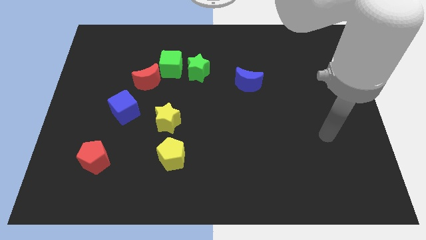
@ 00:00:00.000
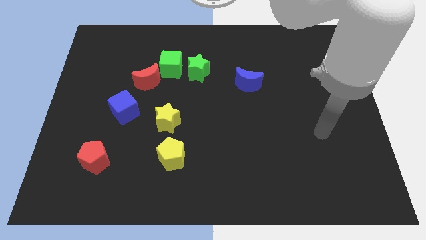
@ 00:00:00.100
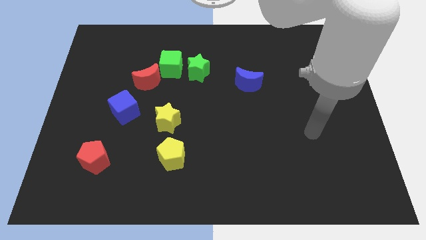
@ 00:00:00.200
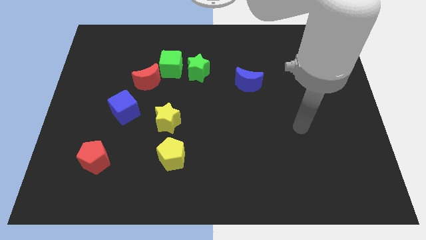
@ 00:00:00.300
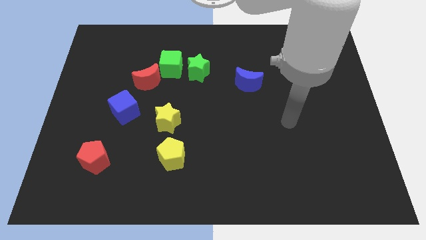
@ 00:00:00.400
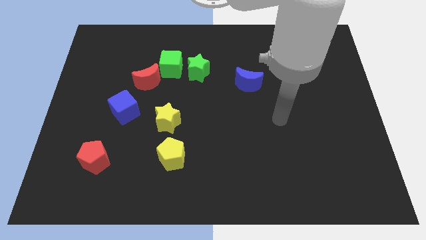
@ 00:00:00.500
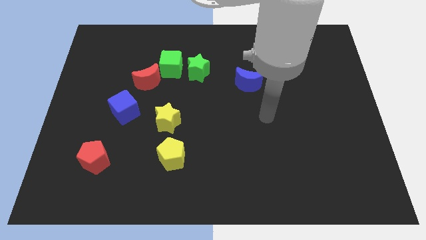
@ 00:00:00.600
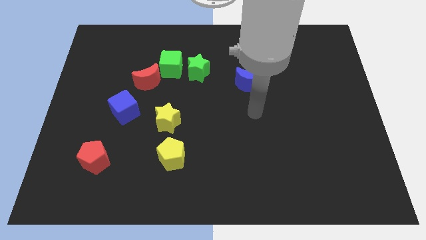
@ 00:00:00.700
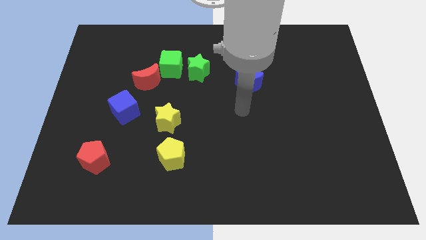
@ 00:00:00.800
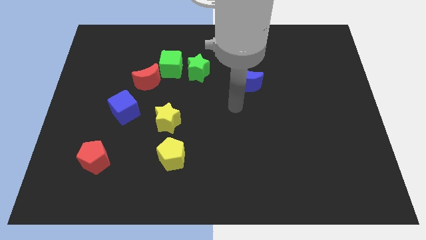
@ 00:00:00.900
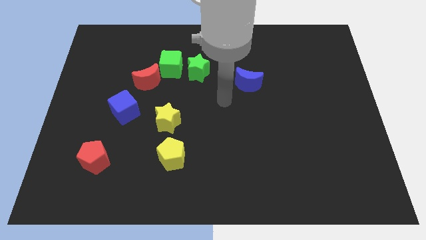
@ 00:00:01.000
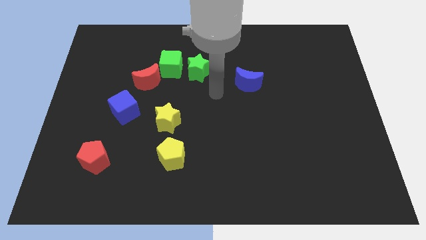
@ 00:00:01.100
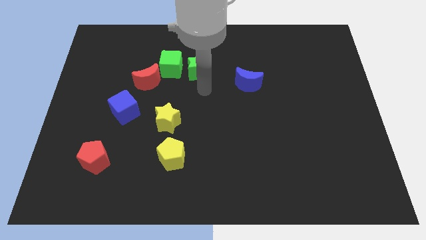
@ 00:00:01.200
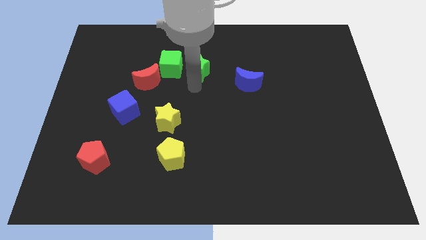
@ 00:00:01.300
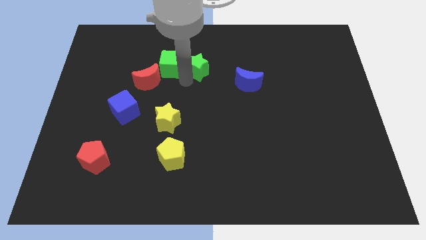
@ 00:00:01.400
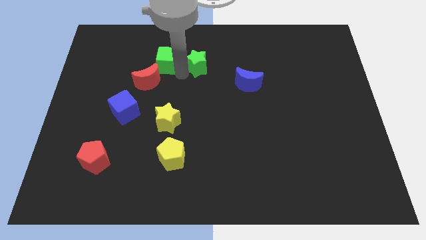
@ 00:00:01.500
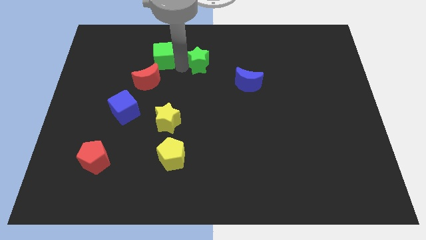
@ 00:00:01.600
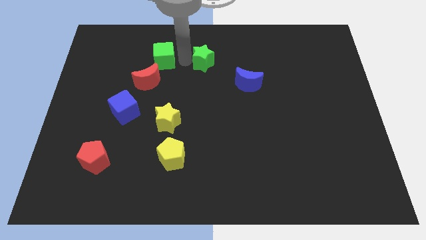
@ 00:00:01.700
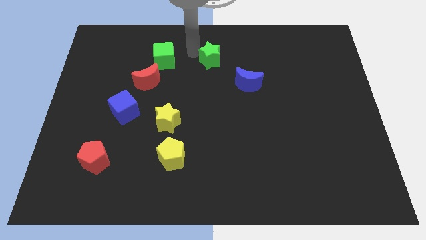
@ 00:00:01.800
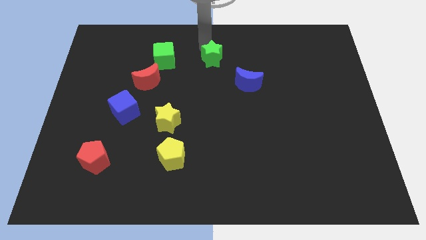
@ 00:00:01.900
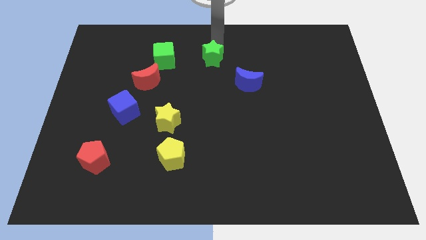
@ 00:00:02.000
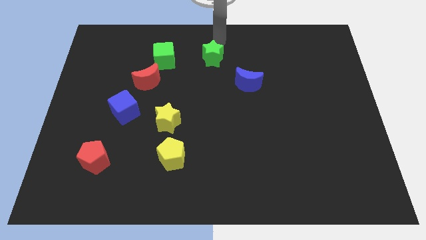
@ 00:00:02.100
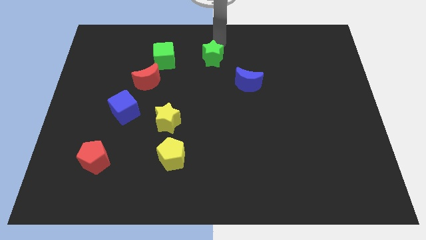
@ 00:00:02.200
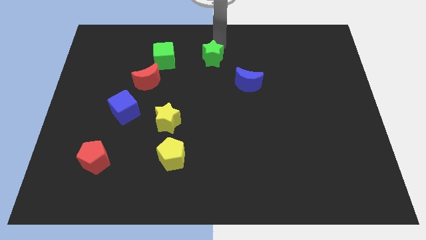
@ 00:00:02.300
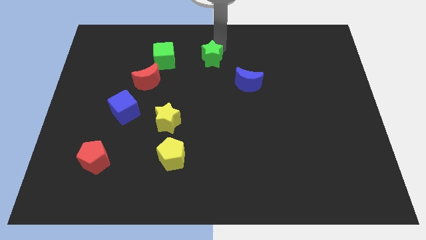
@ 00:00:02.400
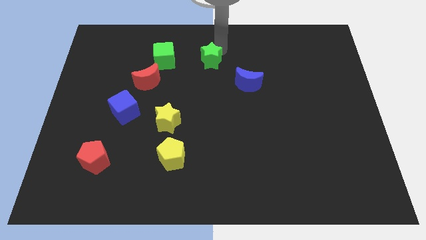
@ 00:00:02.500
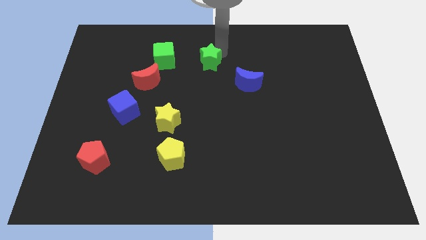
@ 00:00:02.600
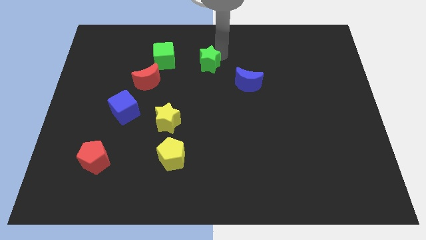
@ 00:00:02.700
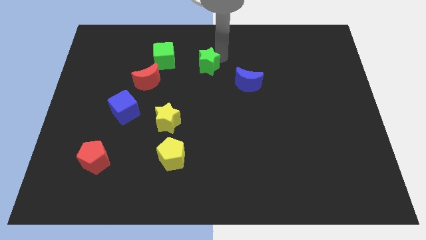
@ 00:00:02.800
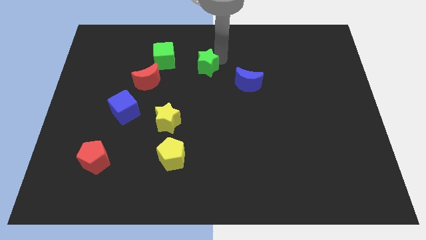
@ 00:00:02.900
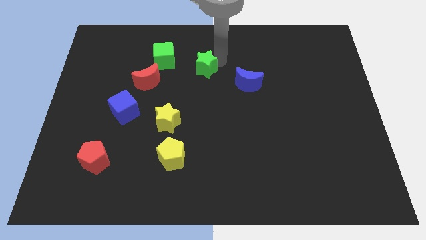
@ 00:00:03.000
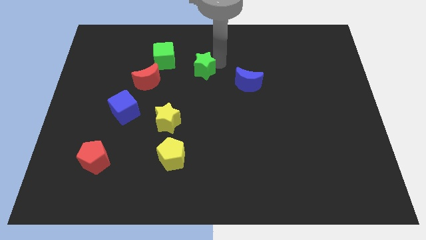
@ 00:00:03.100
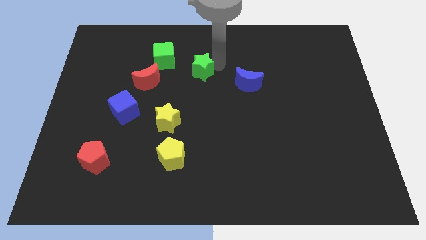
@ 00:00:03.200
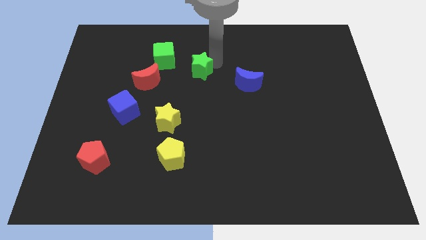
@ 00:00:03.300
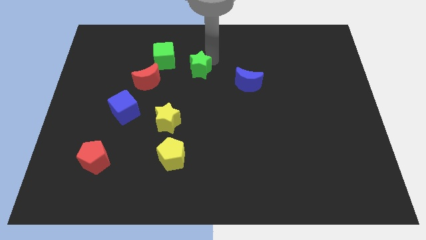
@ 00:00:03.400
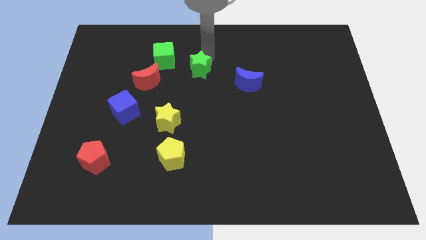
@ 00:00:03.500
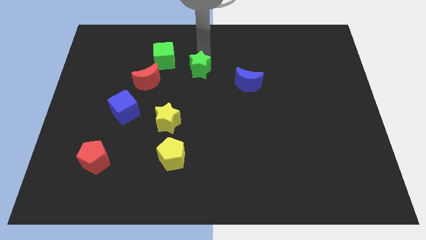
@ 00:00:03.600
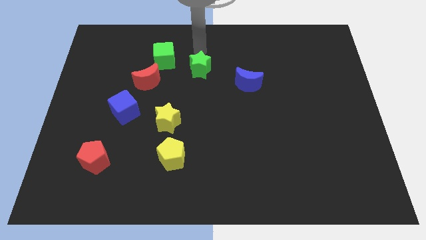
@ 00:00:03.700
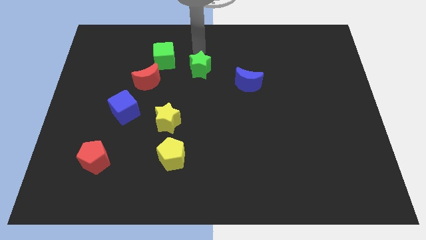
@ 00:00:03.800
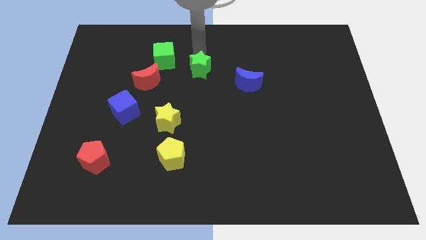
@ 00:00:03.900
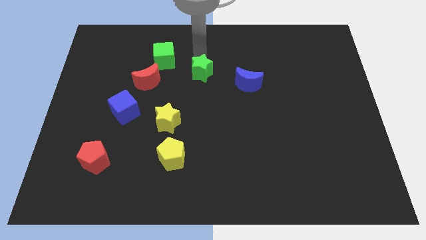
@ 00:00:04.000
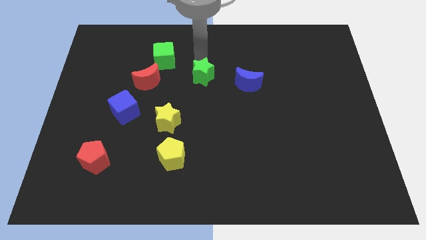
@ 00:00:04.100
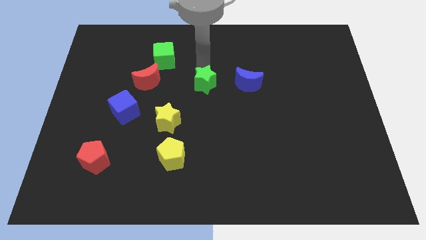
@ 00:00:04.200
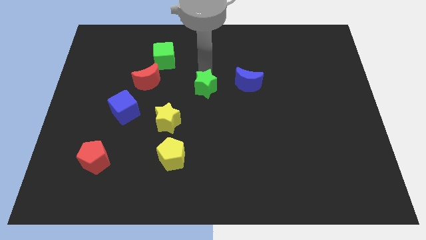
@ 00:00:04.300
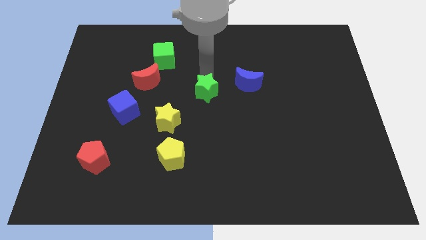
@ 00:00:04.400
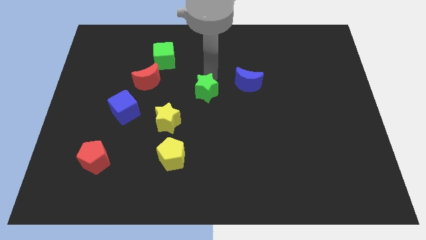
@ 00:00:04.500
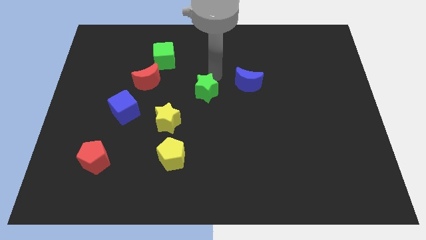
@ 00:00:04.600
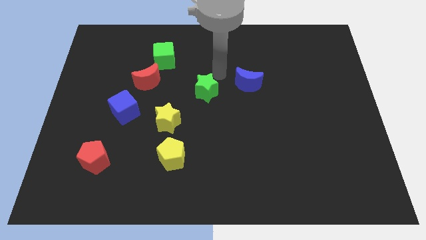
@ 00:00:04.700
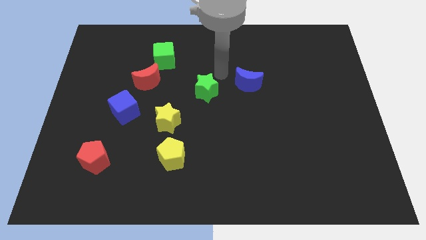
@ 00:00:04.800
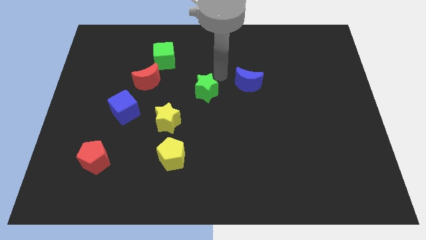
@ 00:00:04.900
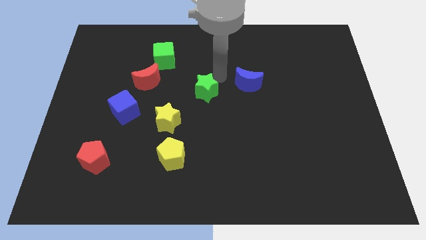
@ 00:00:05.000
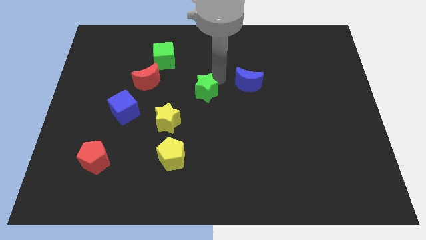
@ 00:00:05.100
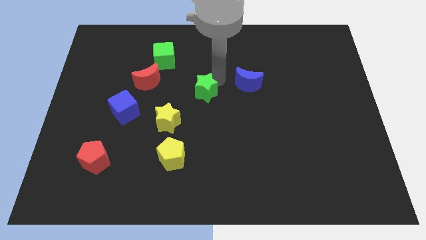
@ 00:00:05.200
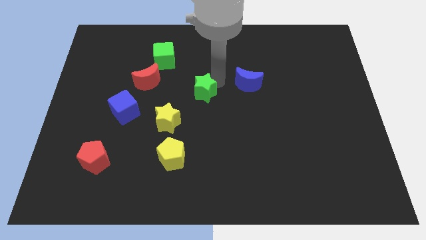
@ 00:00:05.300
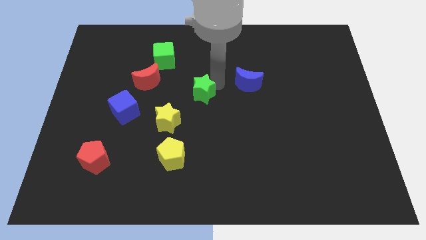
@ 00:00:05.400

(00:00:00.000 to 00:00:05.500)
slightly push the green star downwards

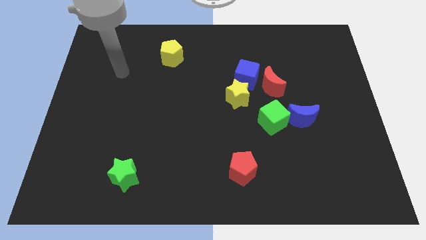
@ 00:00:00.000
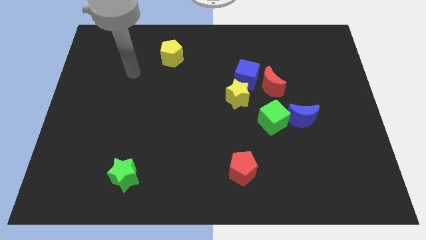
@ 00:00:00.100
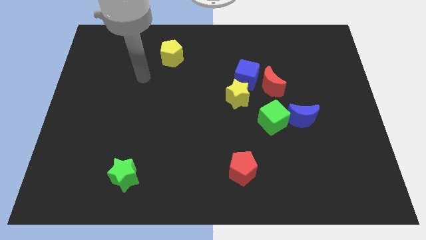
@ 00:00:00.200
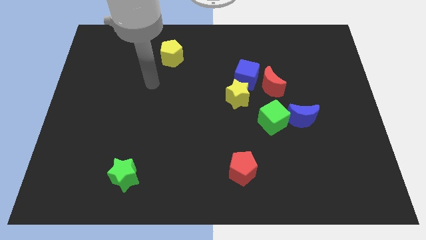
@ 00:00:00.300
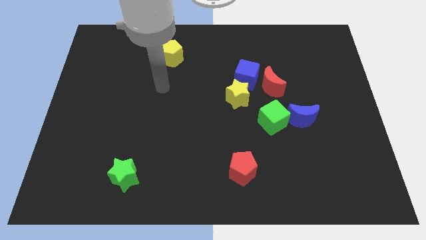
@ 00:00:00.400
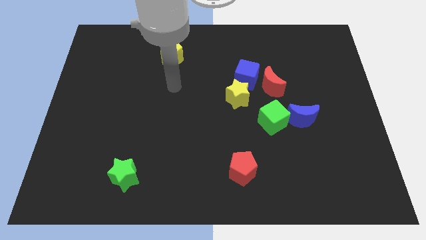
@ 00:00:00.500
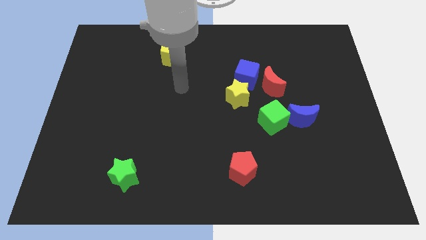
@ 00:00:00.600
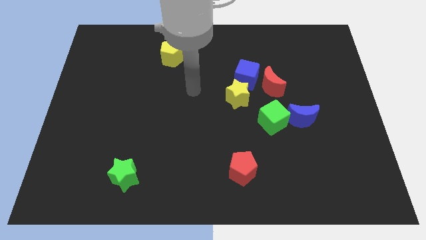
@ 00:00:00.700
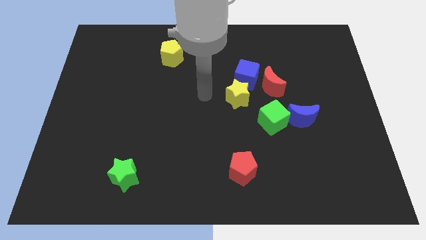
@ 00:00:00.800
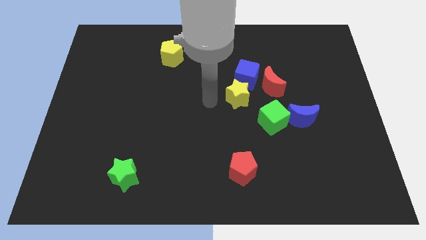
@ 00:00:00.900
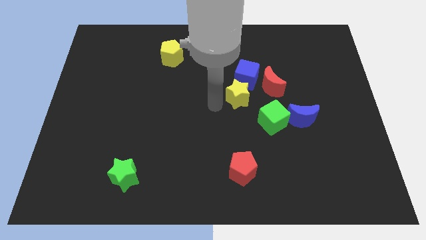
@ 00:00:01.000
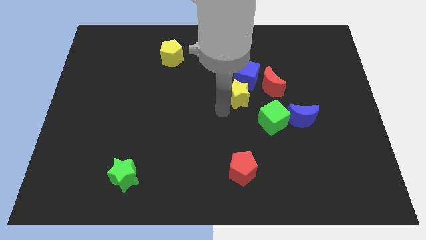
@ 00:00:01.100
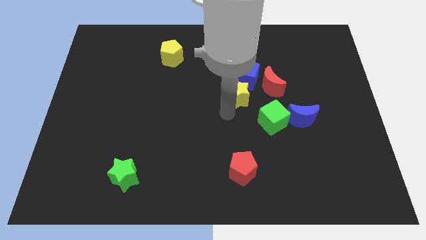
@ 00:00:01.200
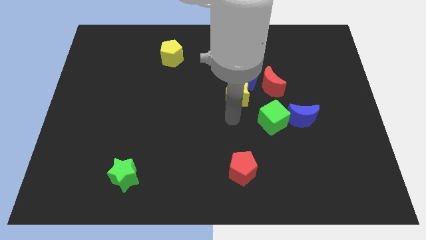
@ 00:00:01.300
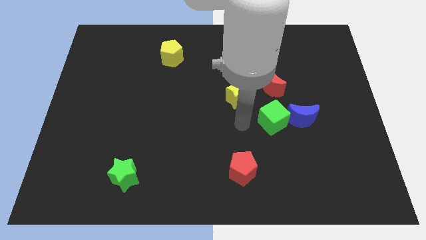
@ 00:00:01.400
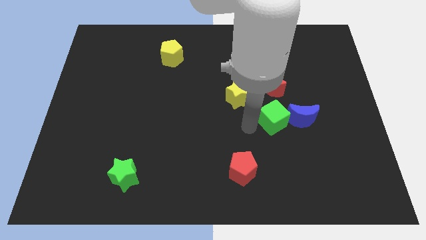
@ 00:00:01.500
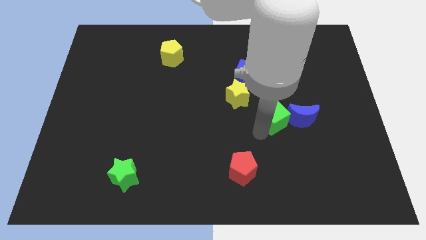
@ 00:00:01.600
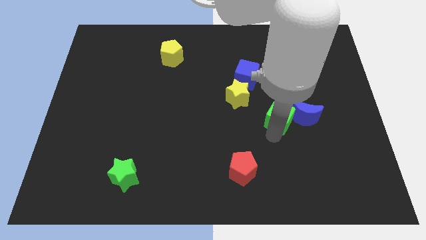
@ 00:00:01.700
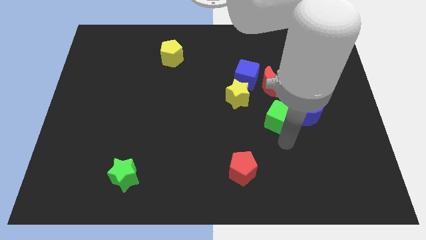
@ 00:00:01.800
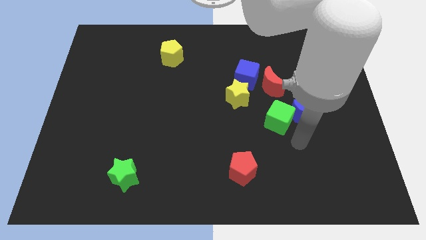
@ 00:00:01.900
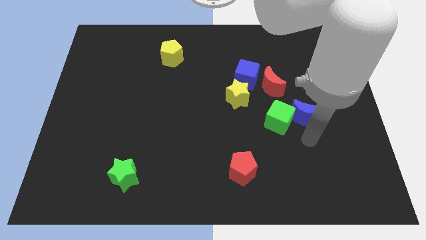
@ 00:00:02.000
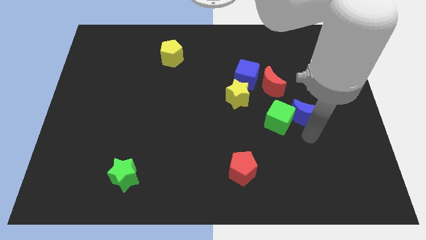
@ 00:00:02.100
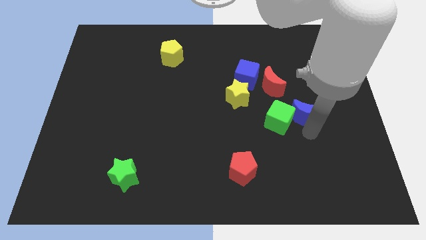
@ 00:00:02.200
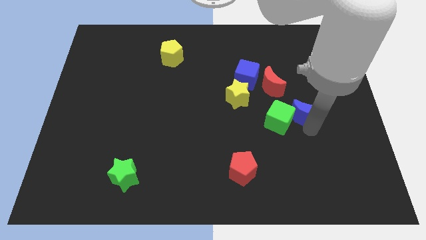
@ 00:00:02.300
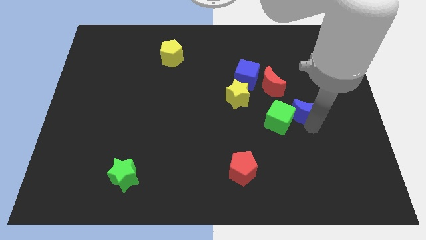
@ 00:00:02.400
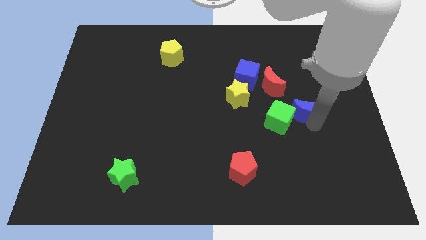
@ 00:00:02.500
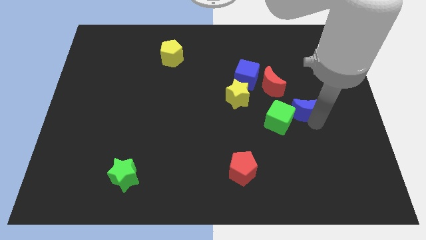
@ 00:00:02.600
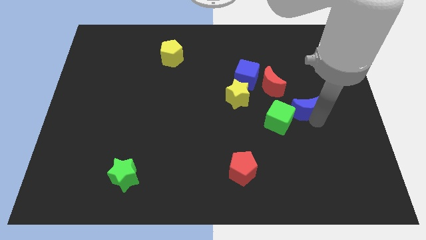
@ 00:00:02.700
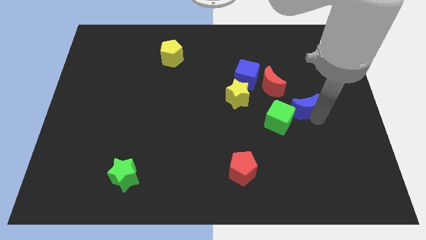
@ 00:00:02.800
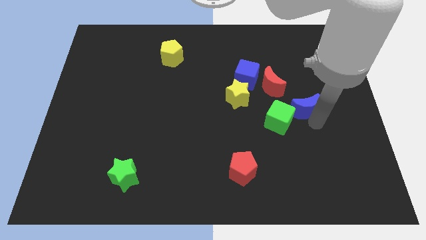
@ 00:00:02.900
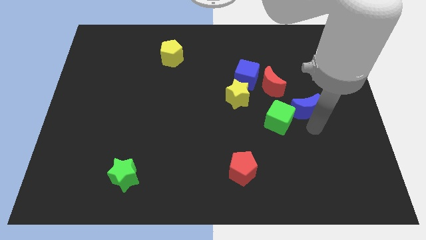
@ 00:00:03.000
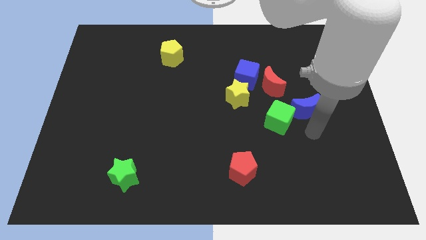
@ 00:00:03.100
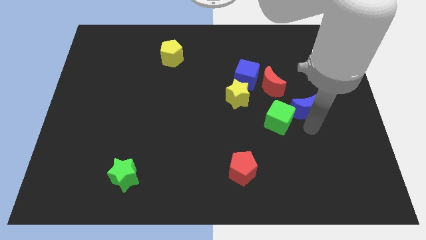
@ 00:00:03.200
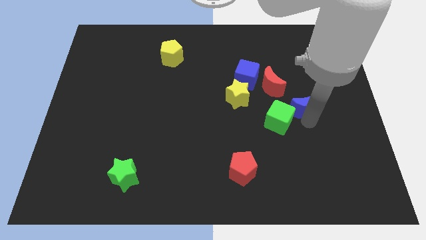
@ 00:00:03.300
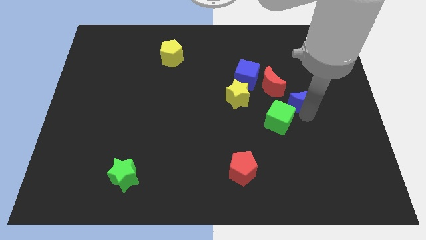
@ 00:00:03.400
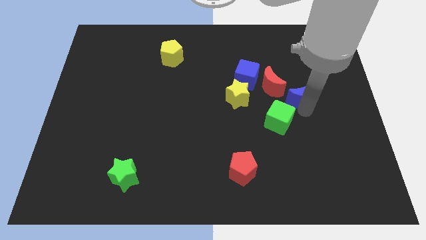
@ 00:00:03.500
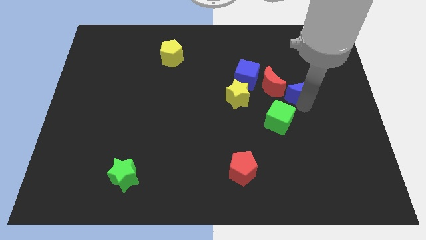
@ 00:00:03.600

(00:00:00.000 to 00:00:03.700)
push the blue moon up somewhat
